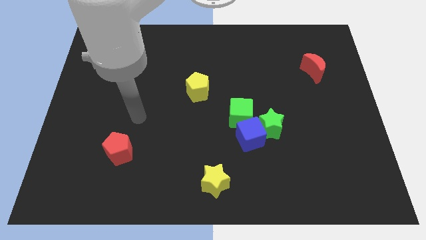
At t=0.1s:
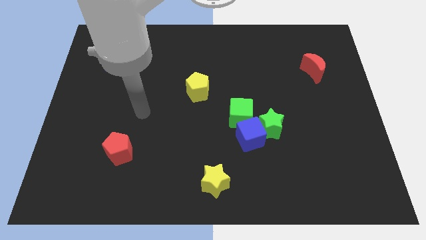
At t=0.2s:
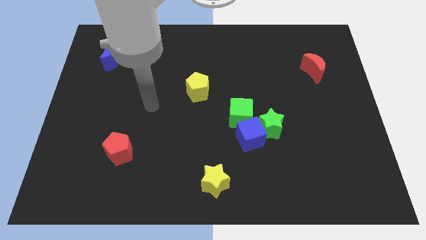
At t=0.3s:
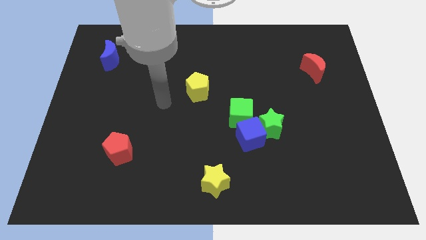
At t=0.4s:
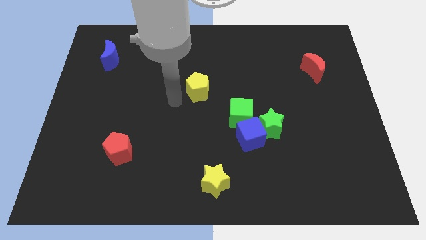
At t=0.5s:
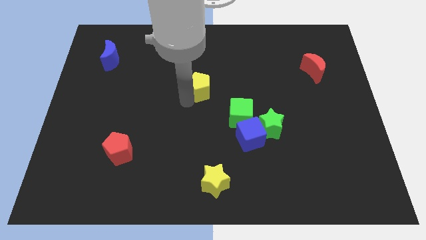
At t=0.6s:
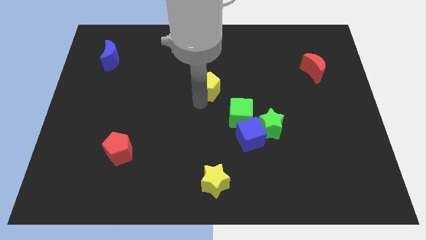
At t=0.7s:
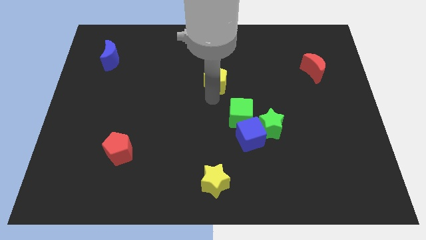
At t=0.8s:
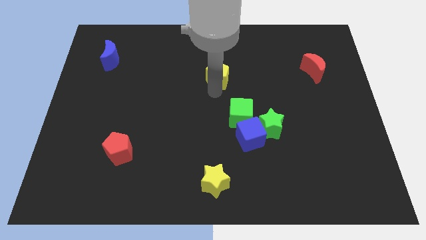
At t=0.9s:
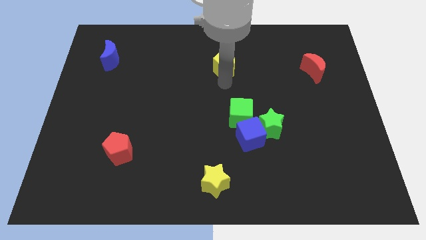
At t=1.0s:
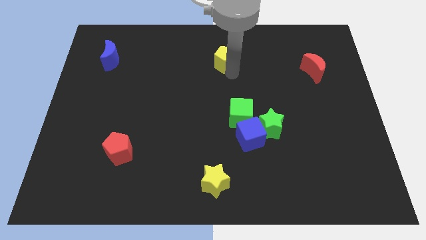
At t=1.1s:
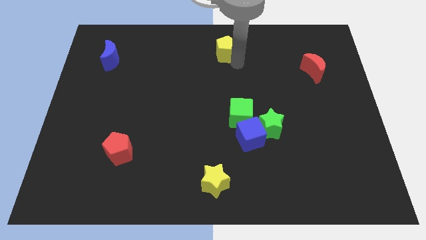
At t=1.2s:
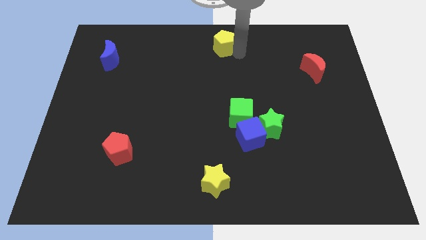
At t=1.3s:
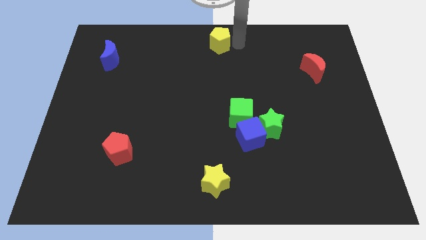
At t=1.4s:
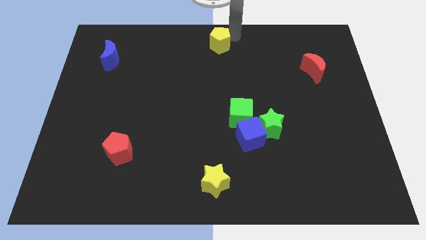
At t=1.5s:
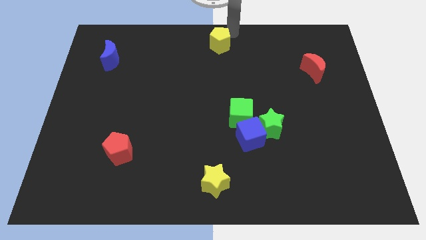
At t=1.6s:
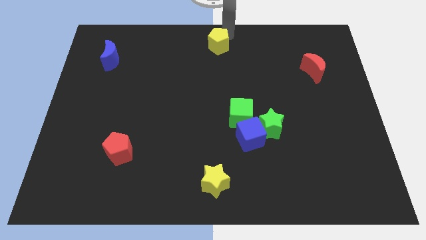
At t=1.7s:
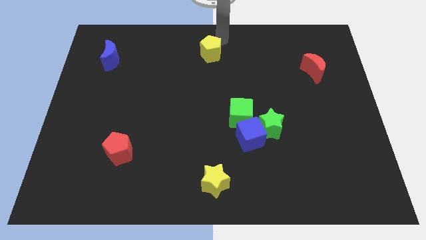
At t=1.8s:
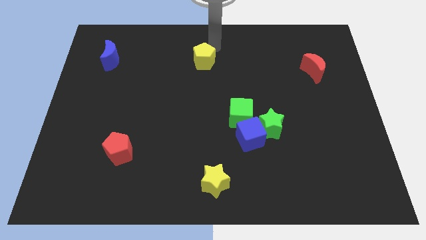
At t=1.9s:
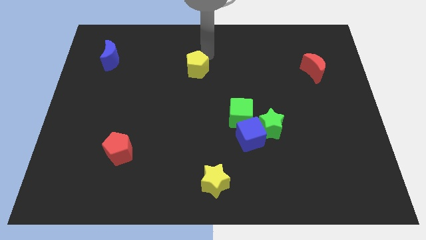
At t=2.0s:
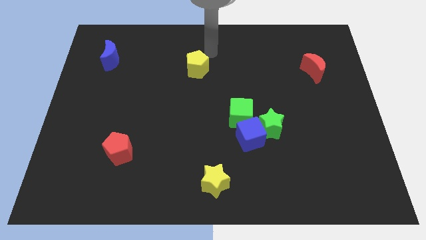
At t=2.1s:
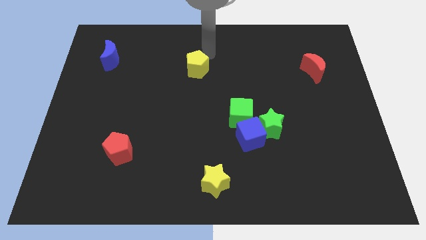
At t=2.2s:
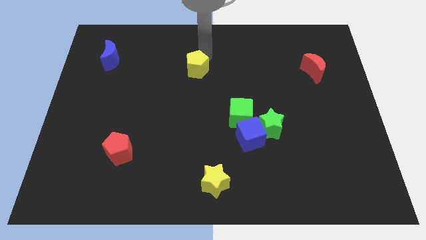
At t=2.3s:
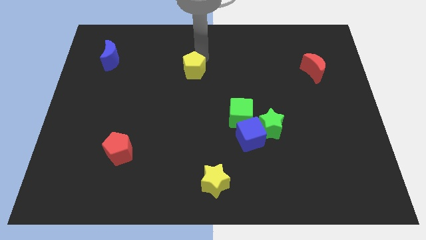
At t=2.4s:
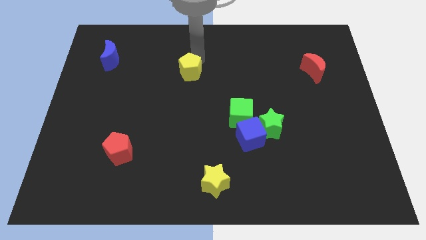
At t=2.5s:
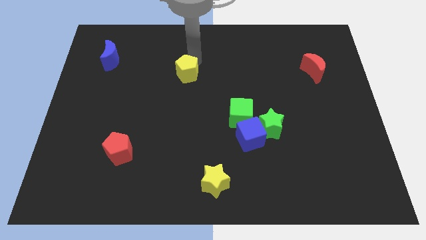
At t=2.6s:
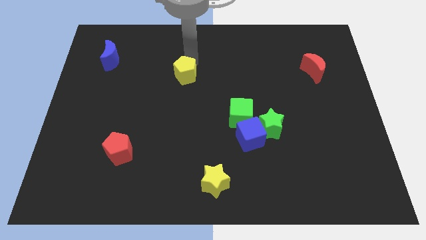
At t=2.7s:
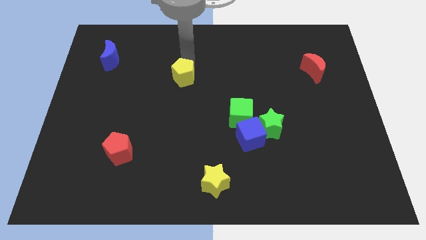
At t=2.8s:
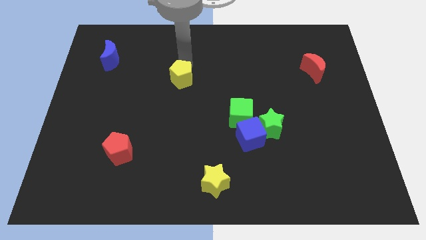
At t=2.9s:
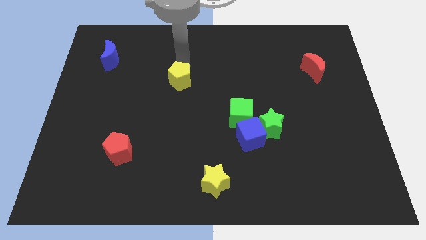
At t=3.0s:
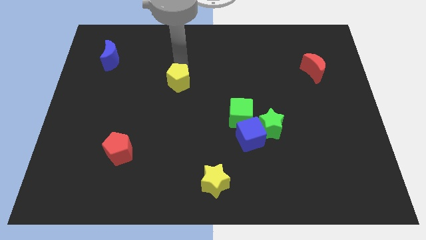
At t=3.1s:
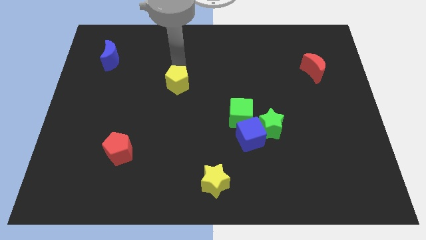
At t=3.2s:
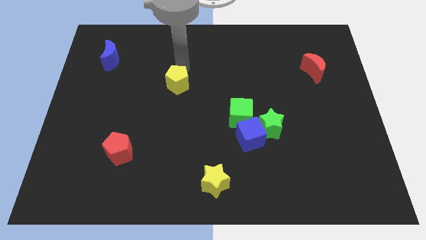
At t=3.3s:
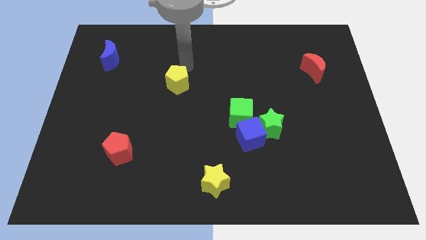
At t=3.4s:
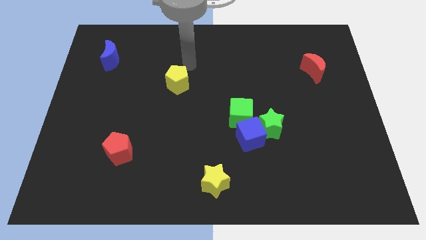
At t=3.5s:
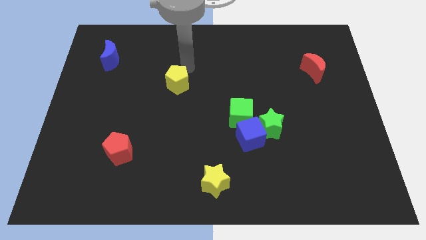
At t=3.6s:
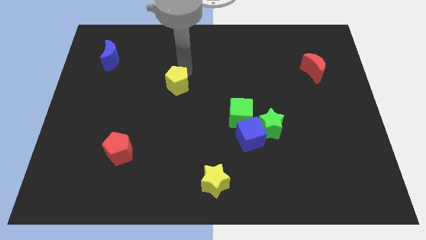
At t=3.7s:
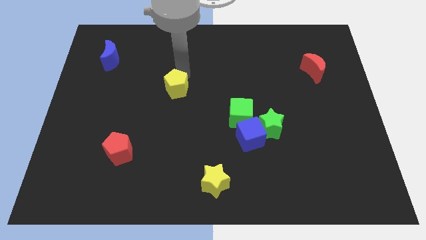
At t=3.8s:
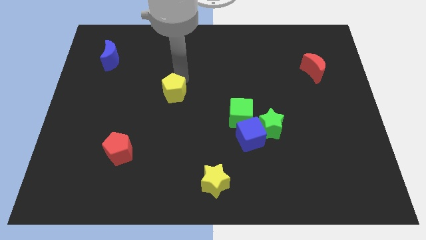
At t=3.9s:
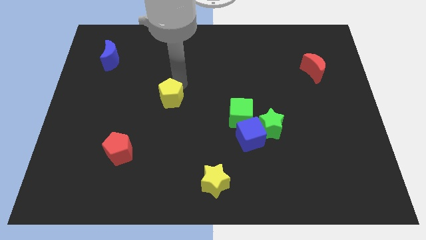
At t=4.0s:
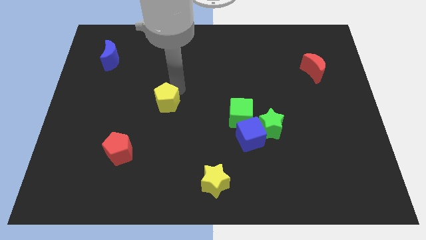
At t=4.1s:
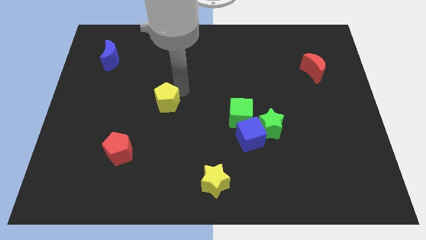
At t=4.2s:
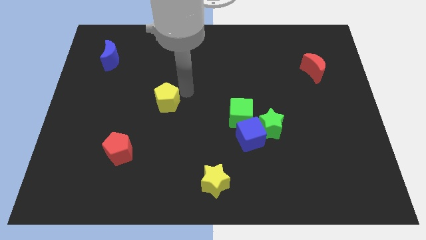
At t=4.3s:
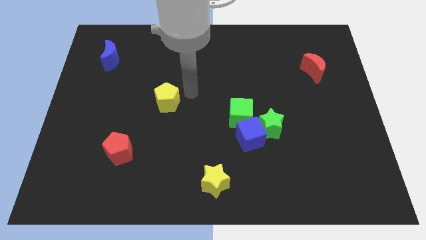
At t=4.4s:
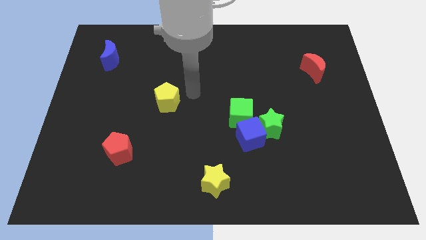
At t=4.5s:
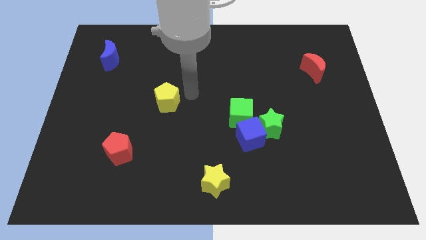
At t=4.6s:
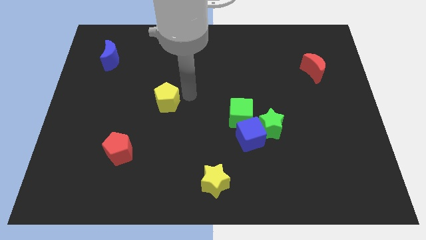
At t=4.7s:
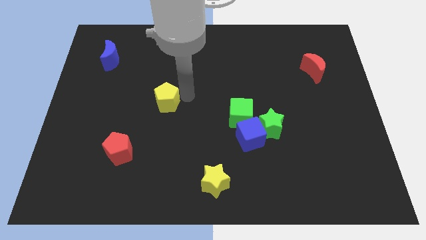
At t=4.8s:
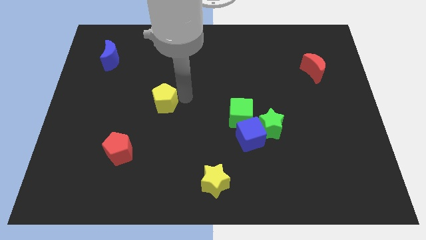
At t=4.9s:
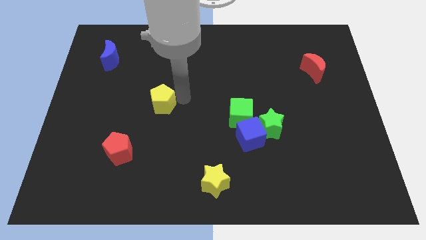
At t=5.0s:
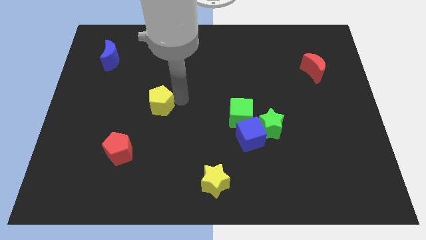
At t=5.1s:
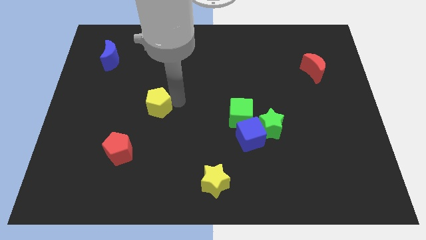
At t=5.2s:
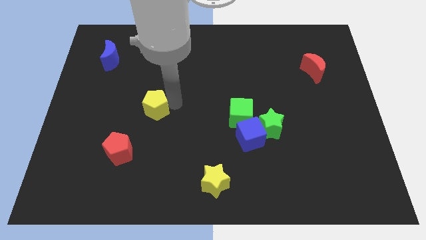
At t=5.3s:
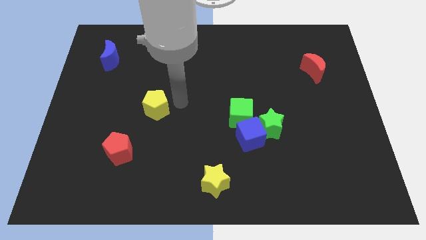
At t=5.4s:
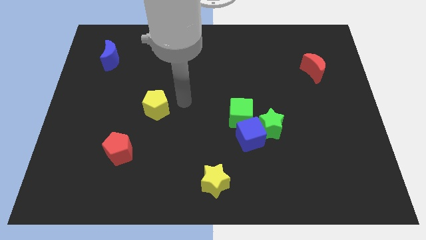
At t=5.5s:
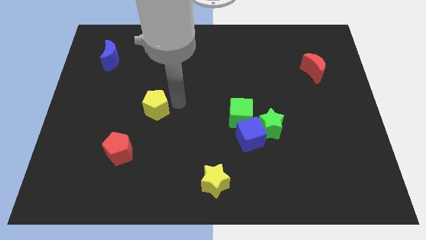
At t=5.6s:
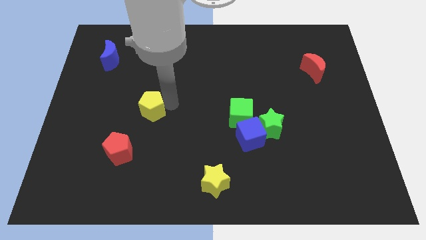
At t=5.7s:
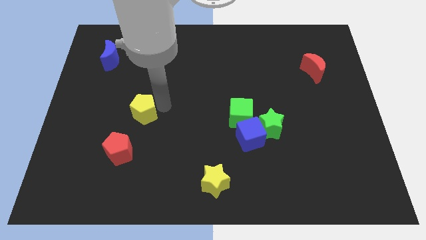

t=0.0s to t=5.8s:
put the yellow pentagon above the red pentagon
